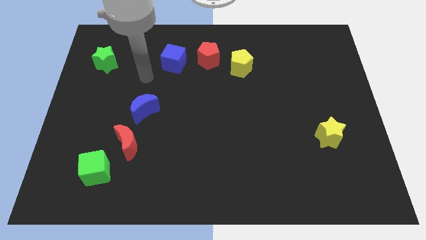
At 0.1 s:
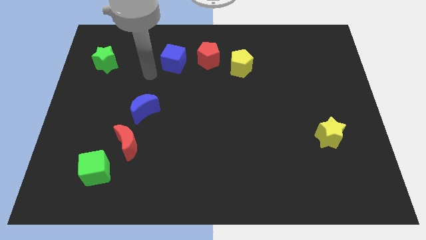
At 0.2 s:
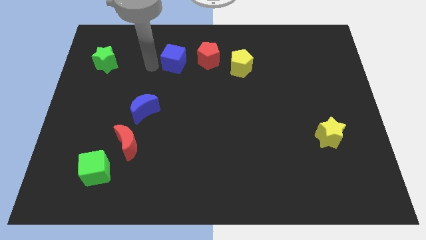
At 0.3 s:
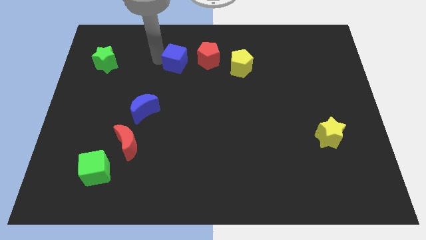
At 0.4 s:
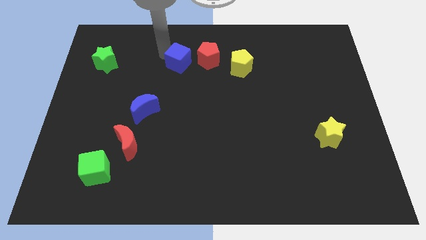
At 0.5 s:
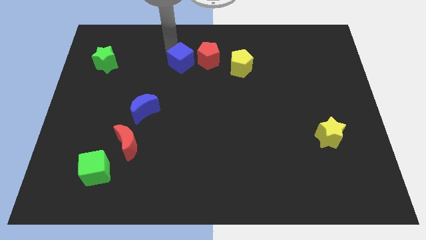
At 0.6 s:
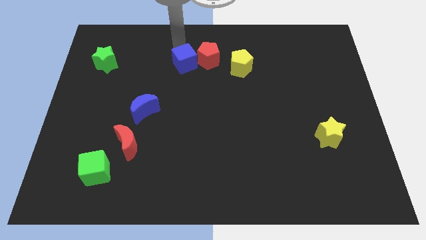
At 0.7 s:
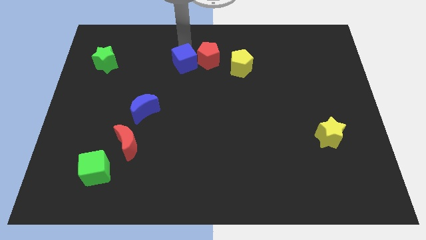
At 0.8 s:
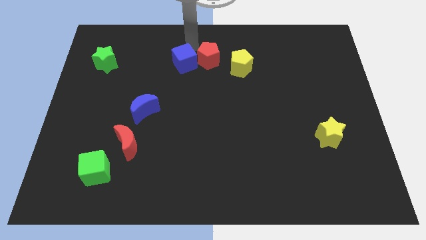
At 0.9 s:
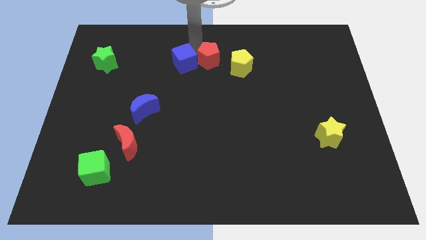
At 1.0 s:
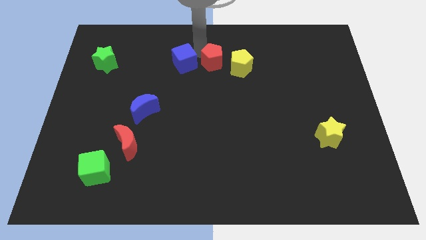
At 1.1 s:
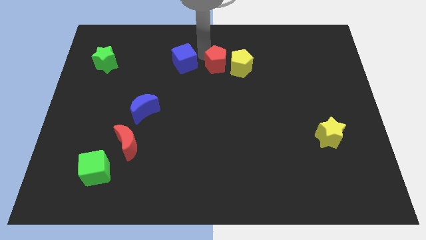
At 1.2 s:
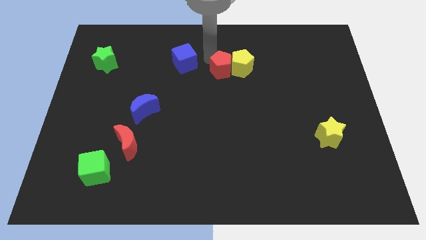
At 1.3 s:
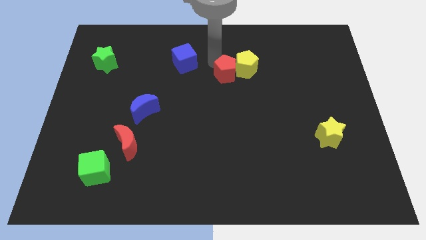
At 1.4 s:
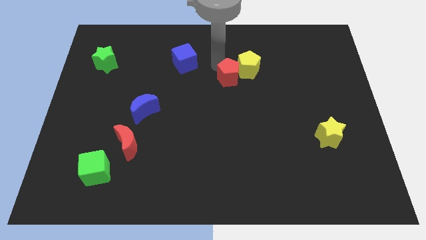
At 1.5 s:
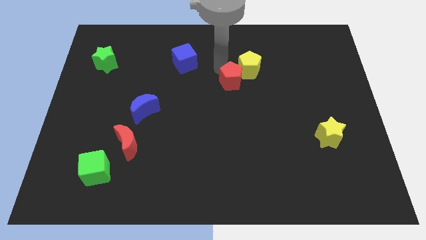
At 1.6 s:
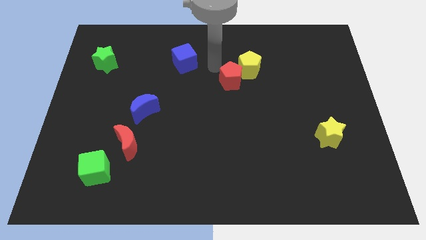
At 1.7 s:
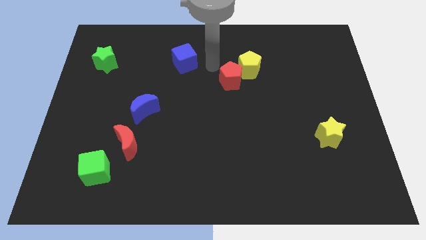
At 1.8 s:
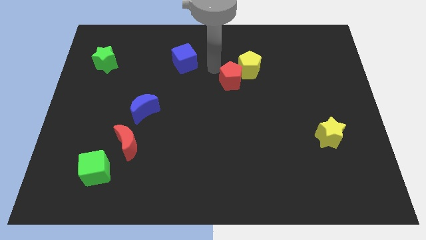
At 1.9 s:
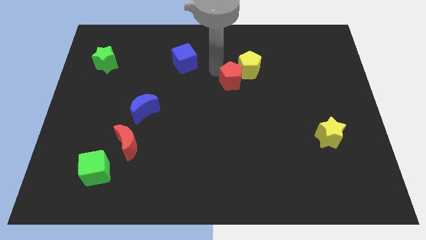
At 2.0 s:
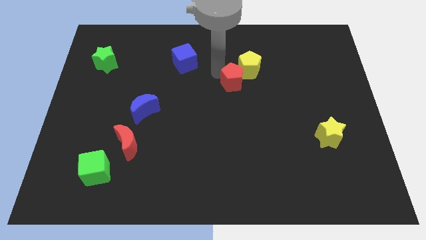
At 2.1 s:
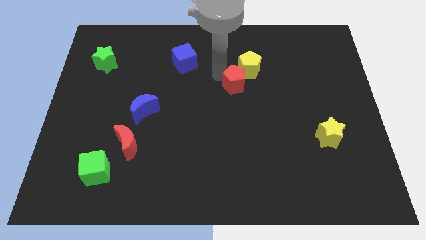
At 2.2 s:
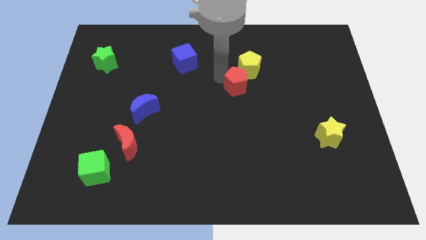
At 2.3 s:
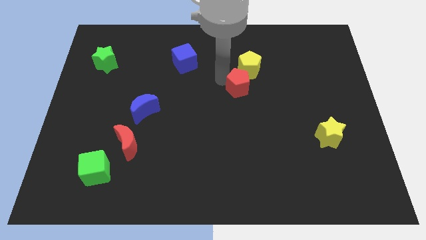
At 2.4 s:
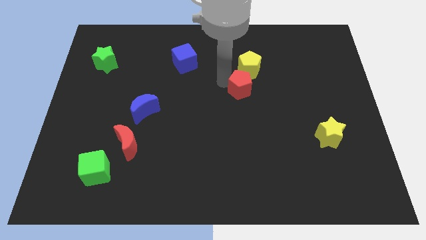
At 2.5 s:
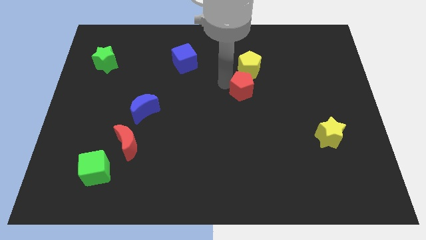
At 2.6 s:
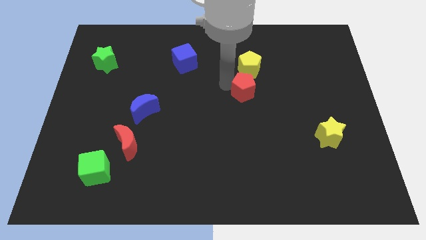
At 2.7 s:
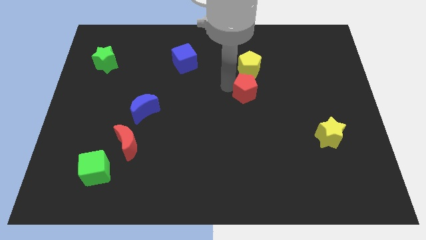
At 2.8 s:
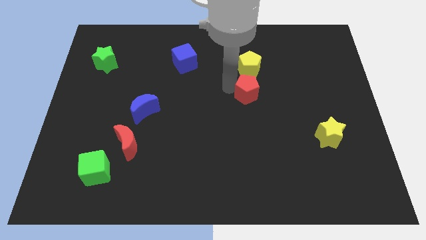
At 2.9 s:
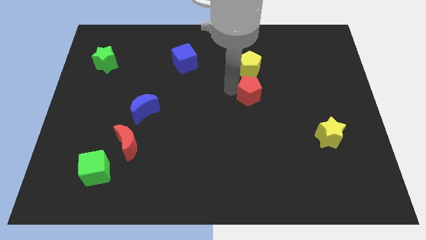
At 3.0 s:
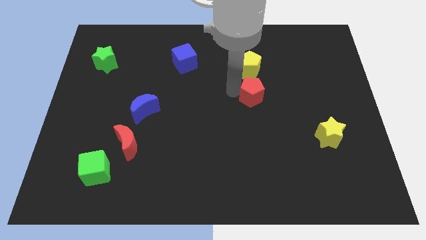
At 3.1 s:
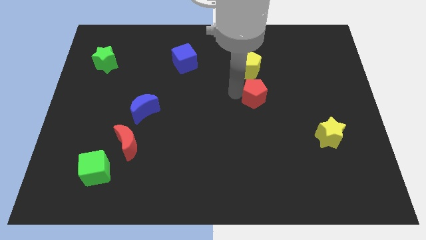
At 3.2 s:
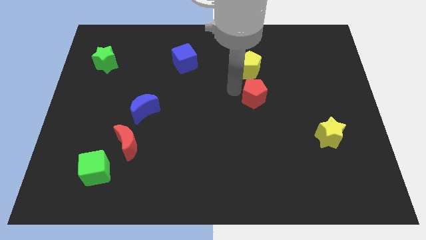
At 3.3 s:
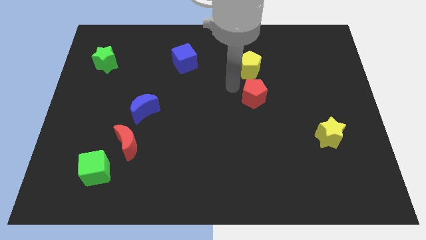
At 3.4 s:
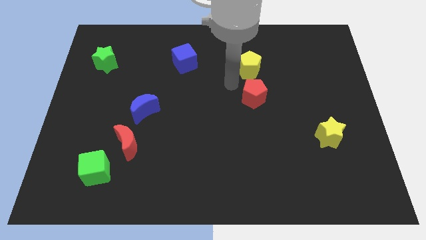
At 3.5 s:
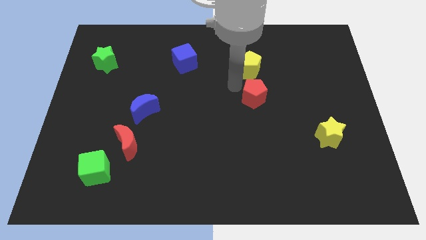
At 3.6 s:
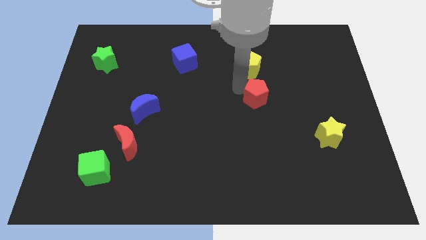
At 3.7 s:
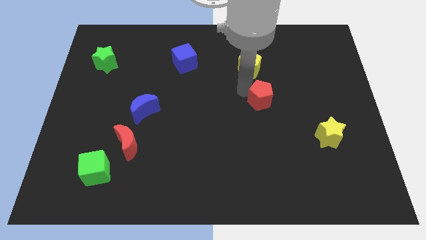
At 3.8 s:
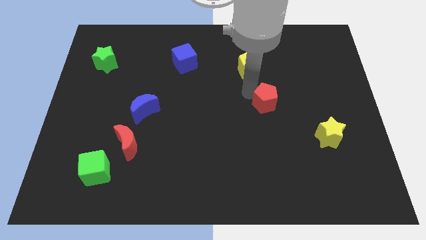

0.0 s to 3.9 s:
push the red pentagon down and to the right

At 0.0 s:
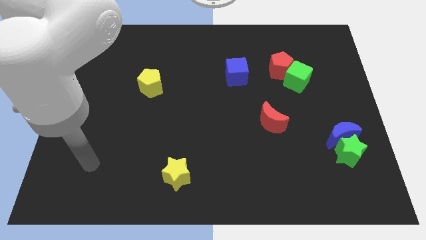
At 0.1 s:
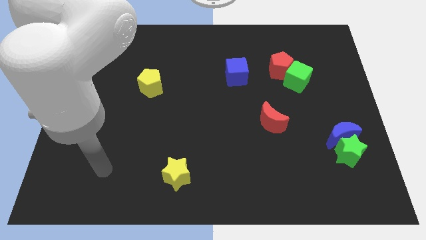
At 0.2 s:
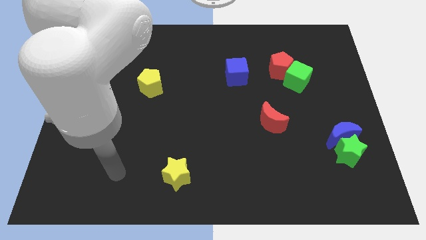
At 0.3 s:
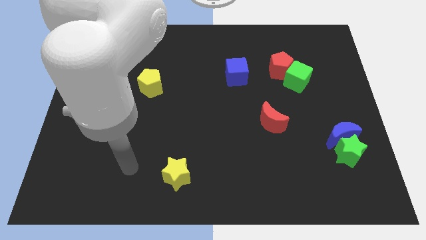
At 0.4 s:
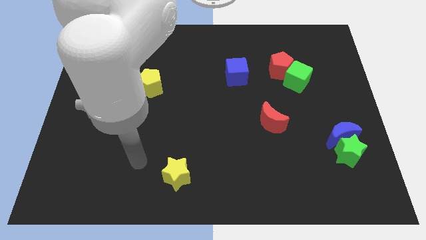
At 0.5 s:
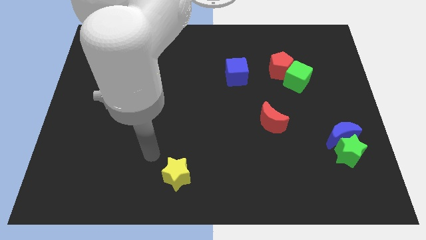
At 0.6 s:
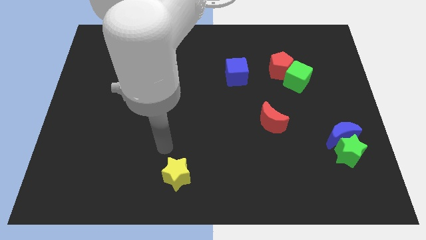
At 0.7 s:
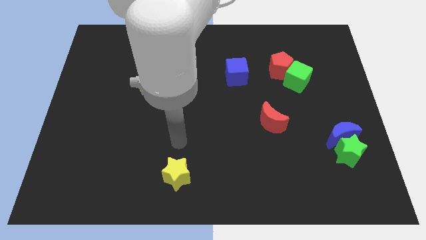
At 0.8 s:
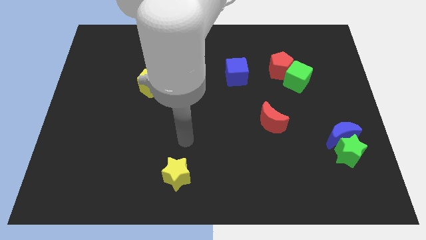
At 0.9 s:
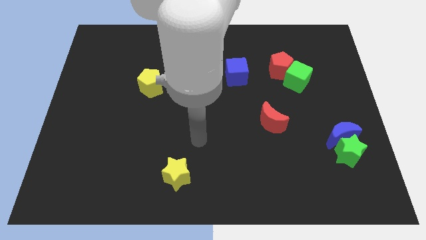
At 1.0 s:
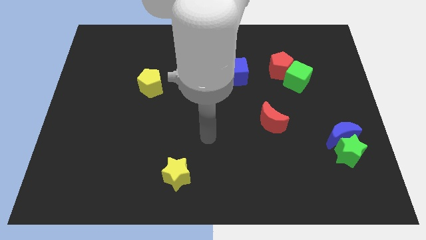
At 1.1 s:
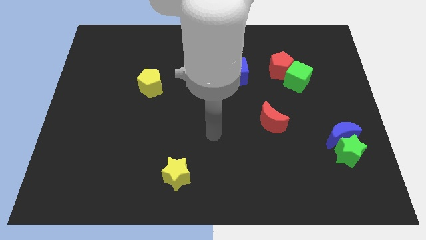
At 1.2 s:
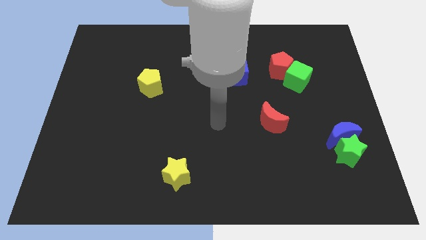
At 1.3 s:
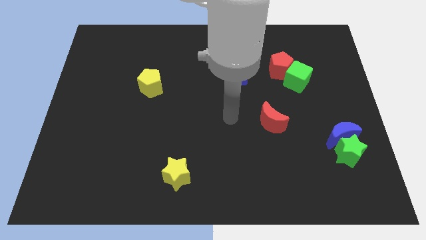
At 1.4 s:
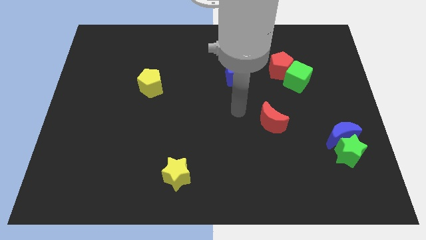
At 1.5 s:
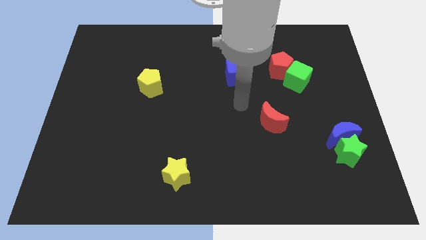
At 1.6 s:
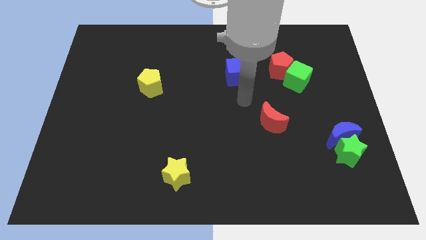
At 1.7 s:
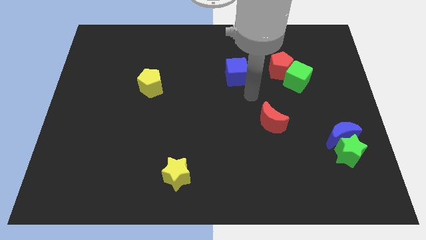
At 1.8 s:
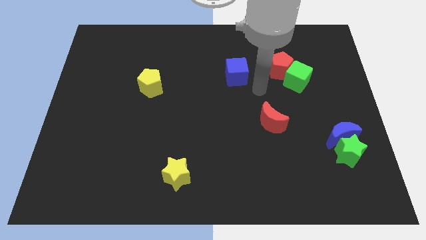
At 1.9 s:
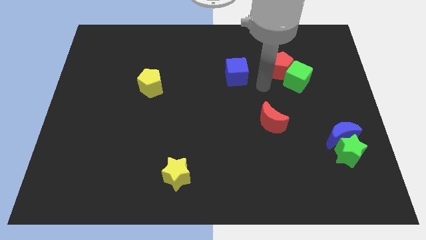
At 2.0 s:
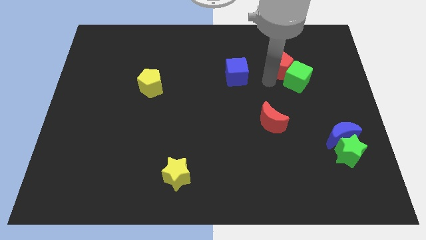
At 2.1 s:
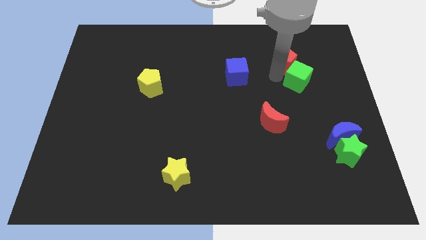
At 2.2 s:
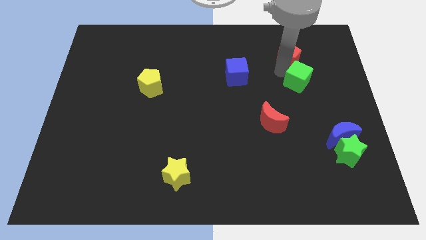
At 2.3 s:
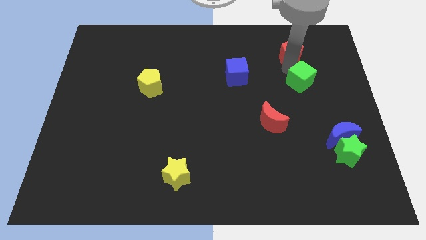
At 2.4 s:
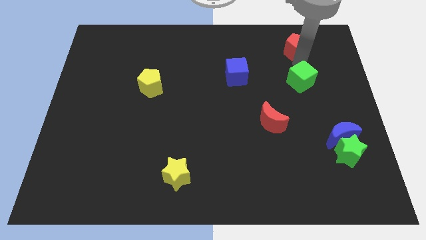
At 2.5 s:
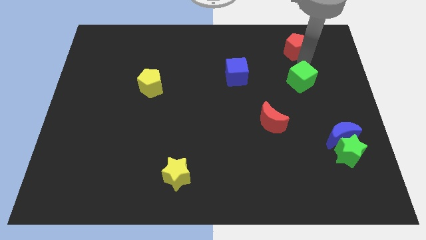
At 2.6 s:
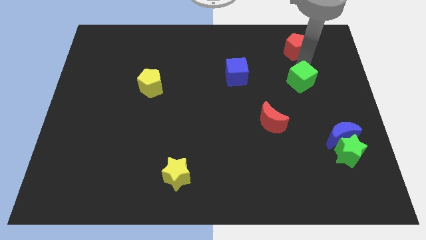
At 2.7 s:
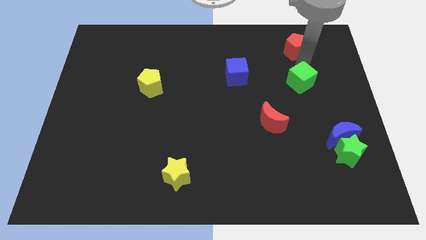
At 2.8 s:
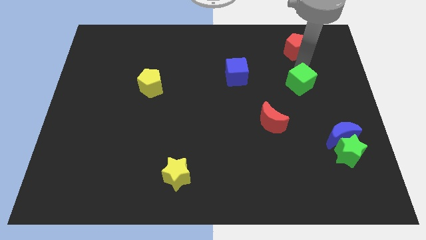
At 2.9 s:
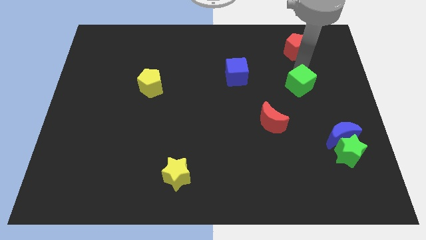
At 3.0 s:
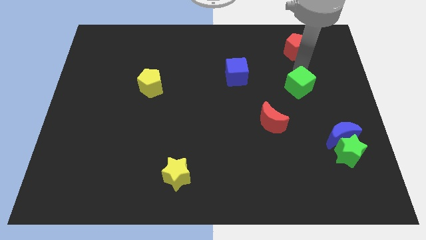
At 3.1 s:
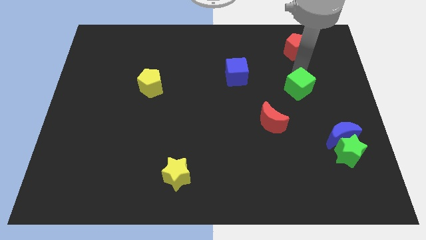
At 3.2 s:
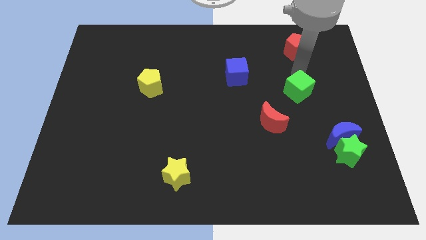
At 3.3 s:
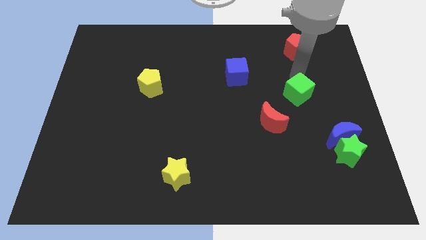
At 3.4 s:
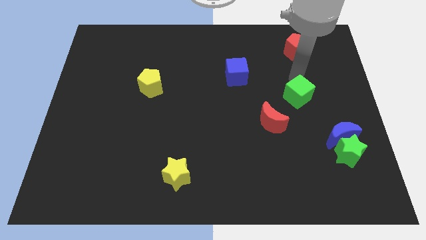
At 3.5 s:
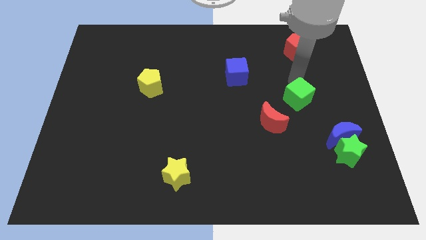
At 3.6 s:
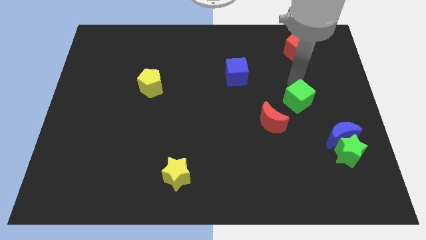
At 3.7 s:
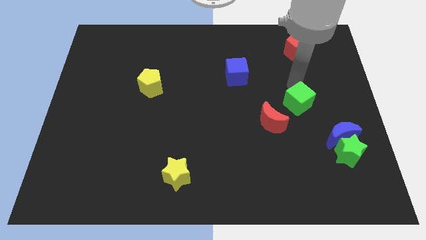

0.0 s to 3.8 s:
push the green cube a little down
